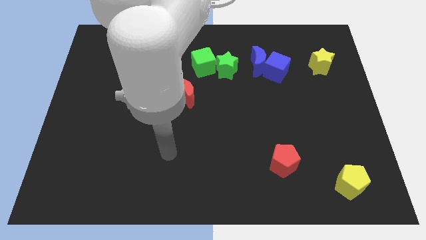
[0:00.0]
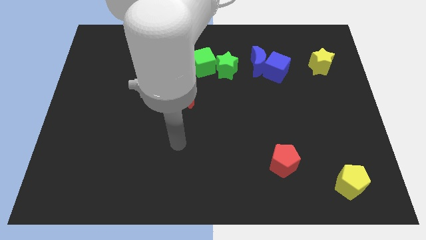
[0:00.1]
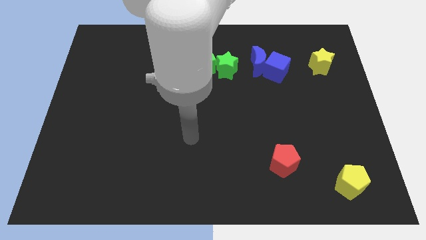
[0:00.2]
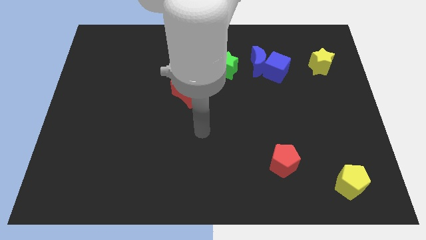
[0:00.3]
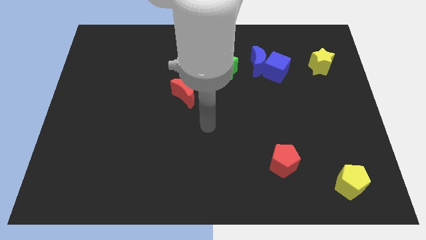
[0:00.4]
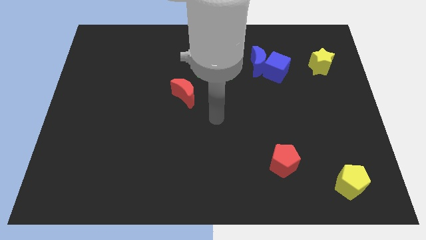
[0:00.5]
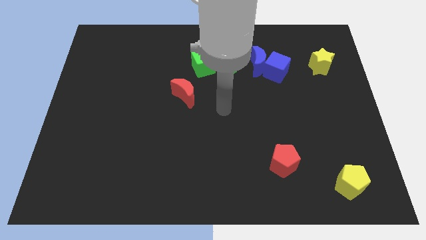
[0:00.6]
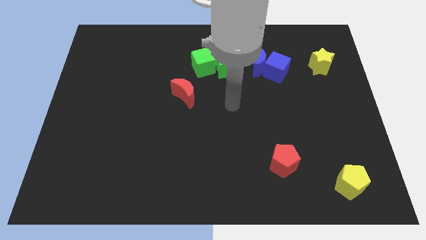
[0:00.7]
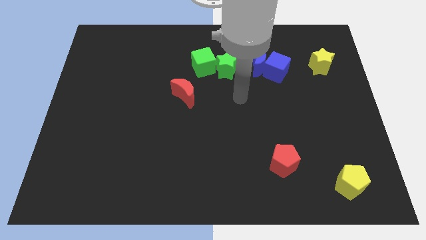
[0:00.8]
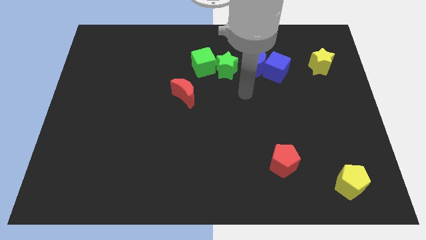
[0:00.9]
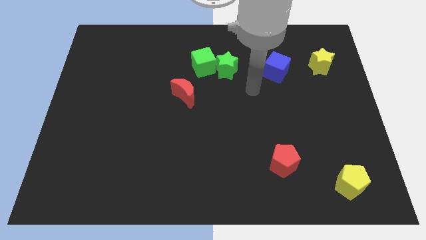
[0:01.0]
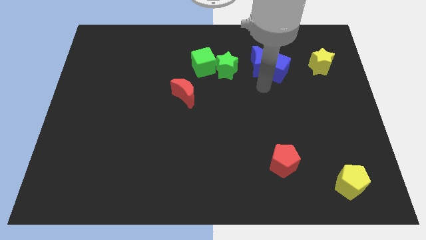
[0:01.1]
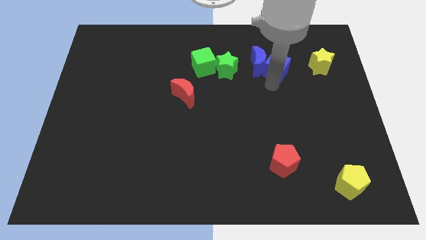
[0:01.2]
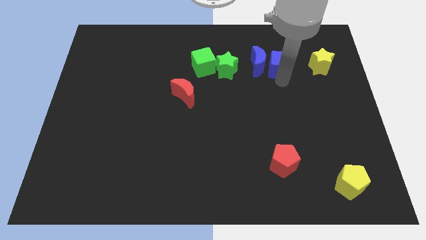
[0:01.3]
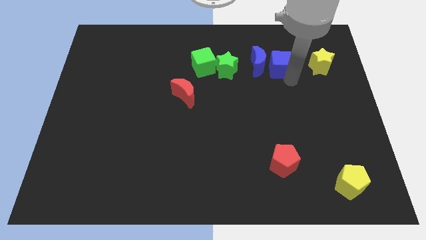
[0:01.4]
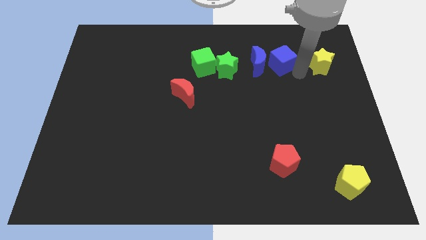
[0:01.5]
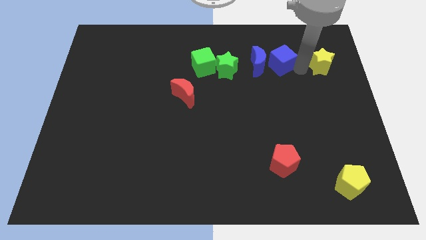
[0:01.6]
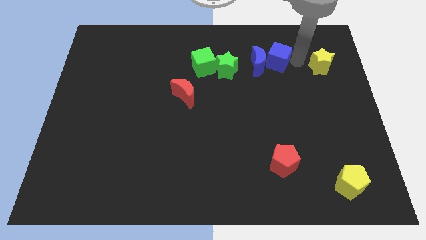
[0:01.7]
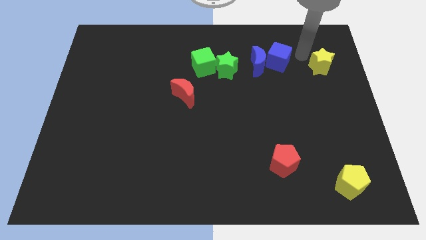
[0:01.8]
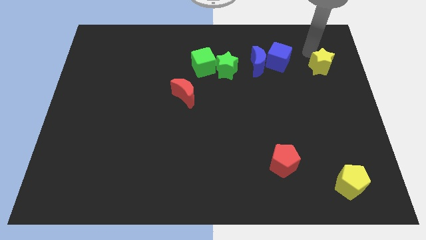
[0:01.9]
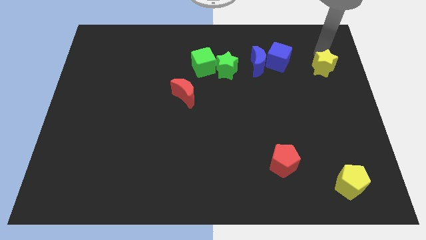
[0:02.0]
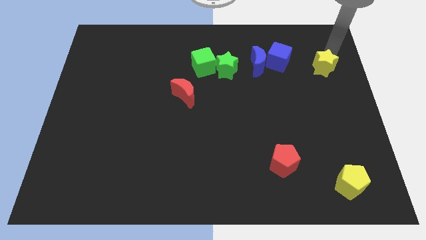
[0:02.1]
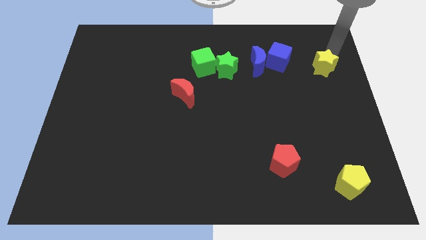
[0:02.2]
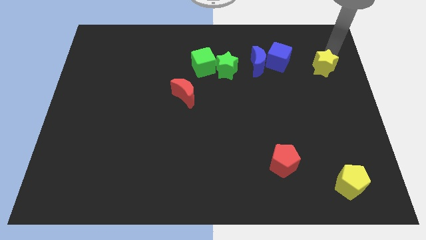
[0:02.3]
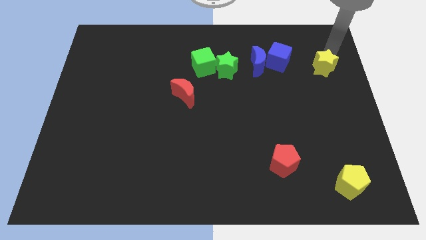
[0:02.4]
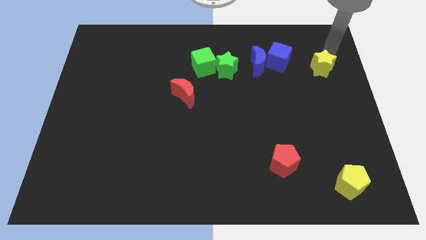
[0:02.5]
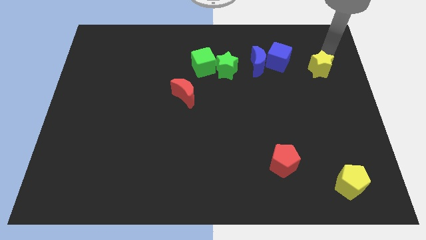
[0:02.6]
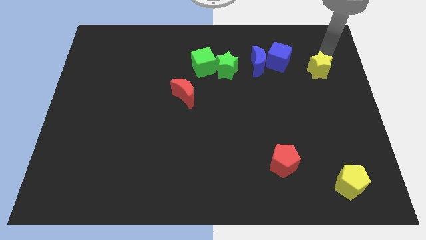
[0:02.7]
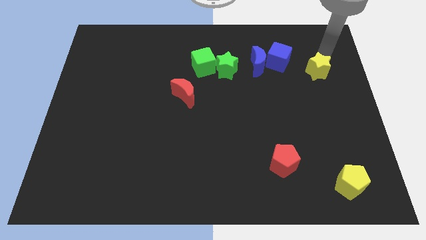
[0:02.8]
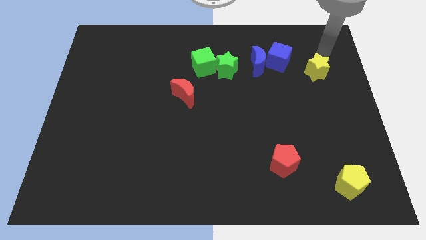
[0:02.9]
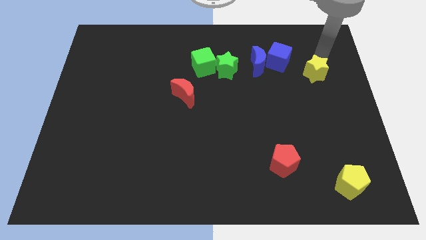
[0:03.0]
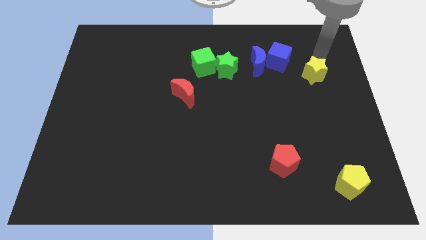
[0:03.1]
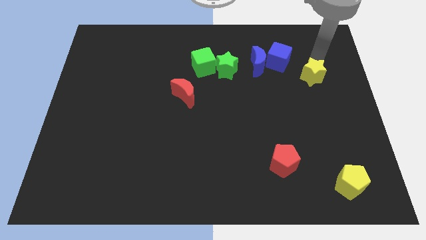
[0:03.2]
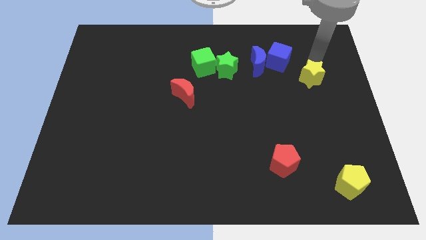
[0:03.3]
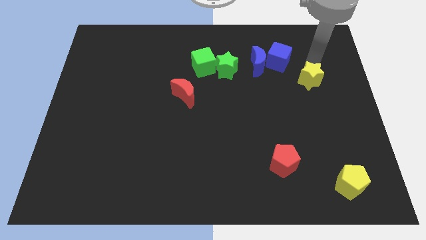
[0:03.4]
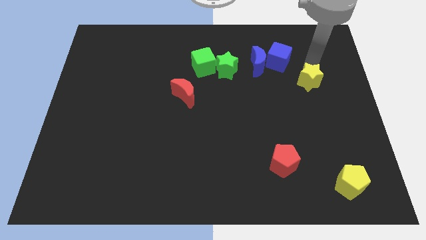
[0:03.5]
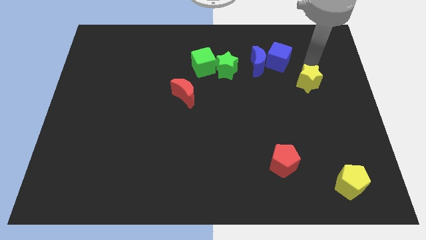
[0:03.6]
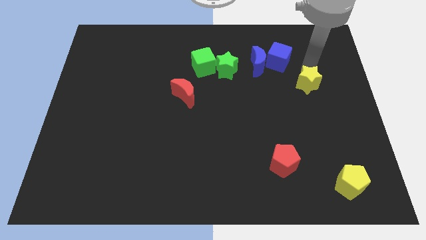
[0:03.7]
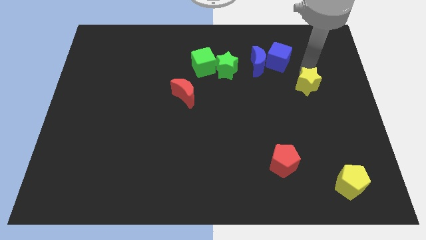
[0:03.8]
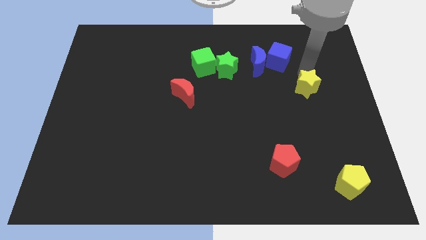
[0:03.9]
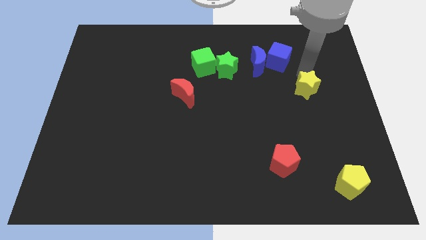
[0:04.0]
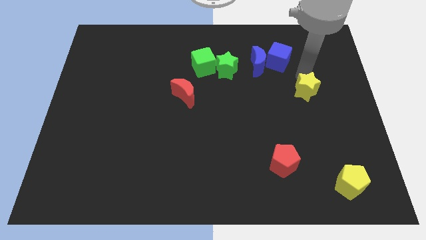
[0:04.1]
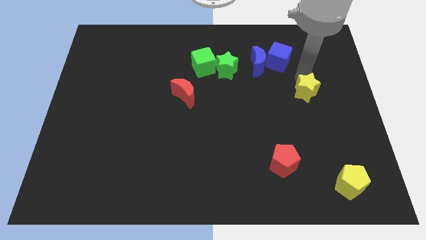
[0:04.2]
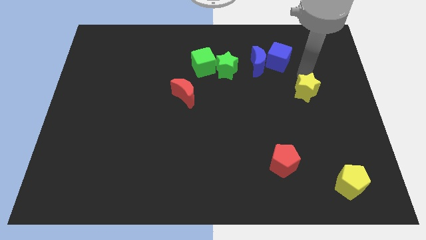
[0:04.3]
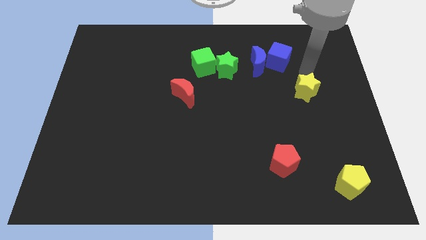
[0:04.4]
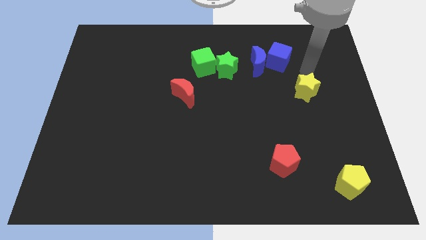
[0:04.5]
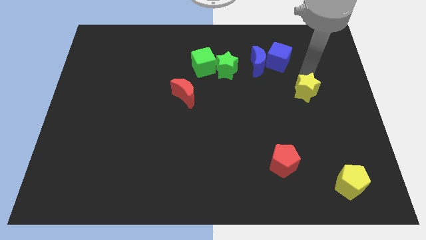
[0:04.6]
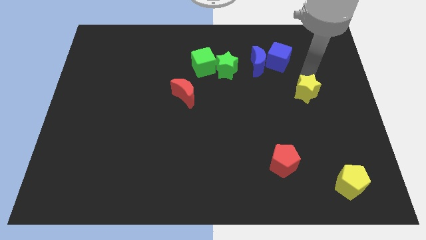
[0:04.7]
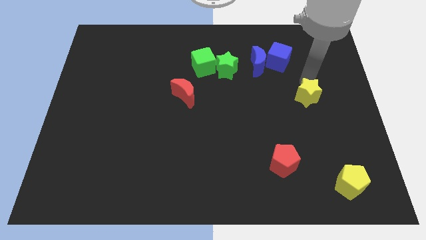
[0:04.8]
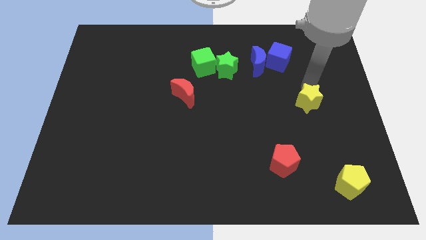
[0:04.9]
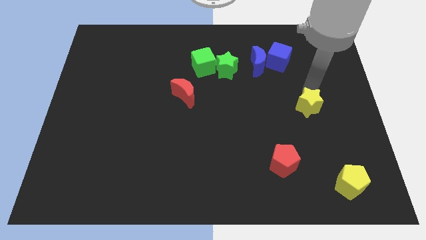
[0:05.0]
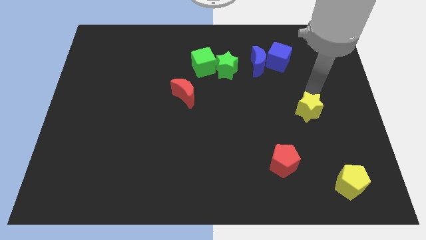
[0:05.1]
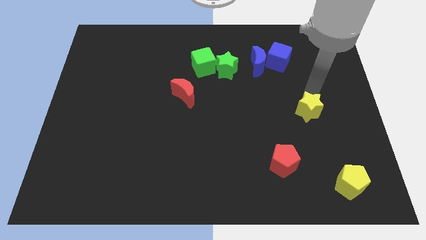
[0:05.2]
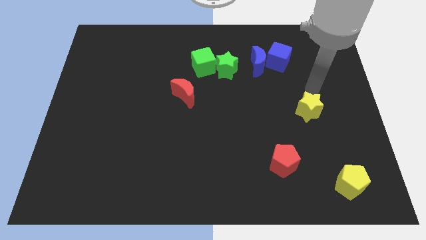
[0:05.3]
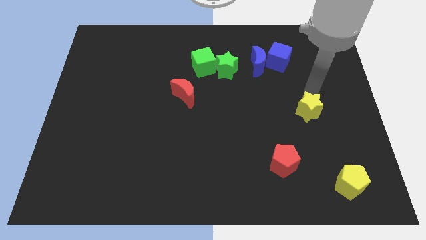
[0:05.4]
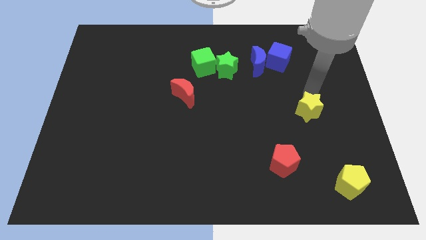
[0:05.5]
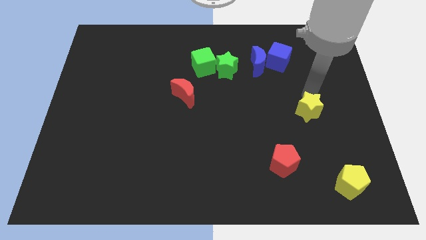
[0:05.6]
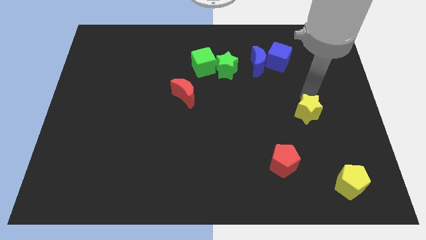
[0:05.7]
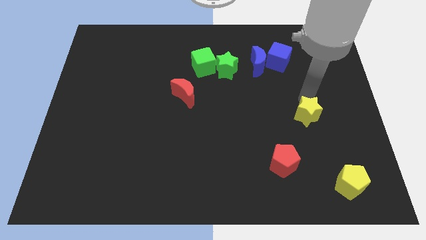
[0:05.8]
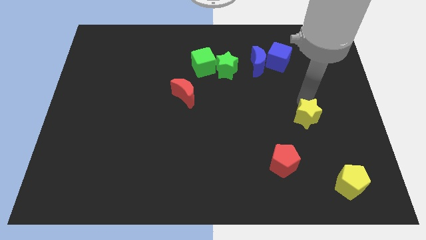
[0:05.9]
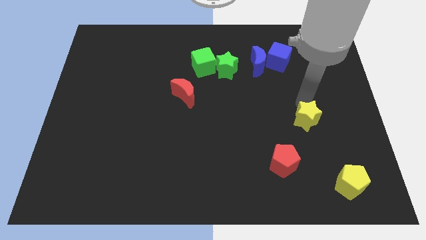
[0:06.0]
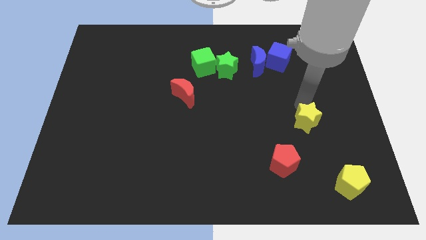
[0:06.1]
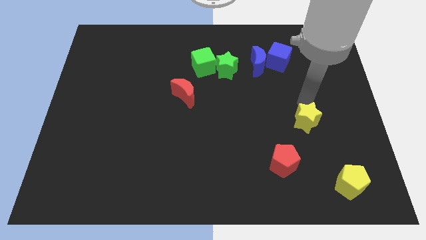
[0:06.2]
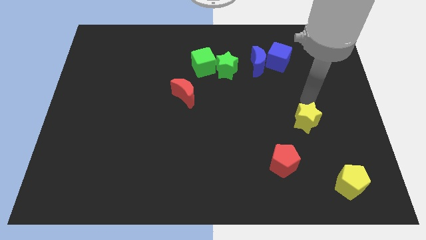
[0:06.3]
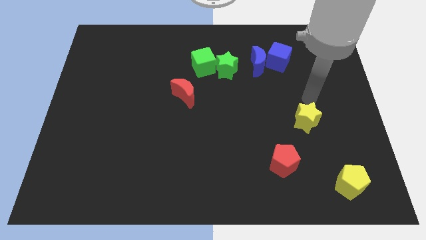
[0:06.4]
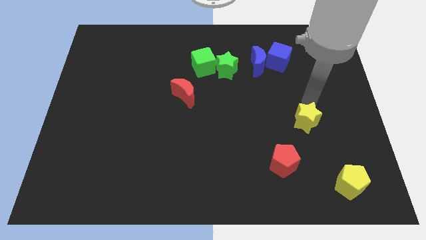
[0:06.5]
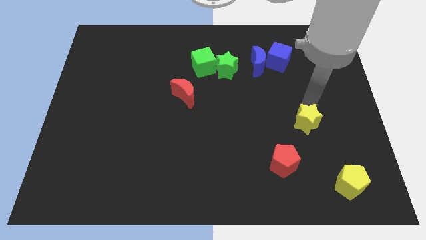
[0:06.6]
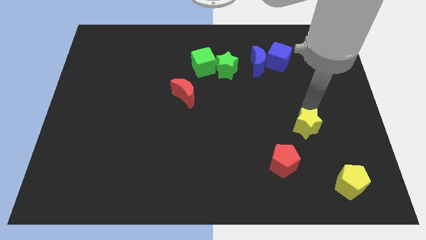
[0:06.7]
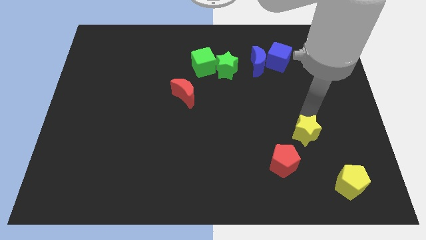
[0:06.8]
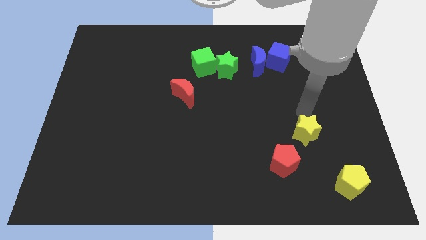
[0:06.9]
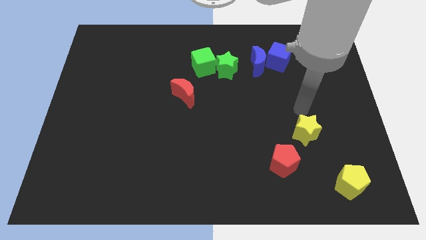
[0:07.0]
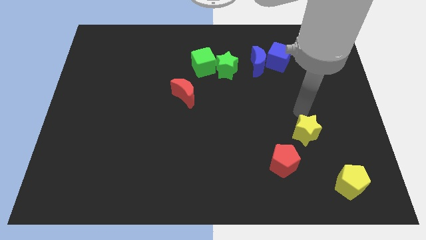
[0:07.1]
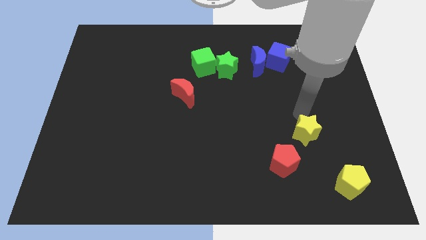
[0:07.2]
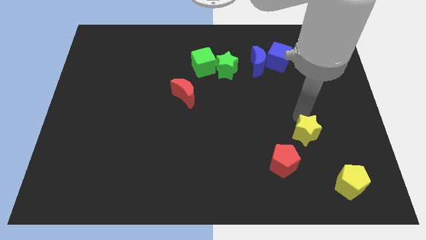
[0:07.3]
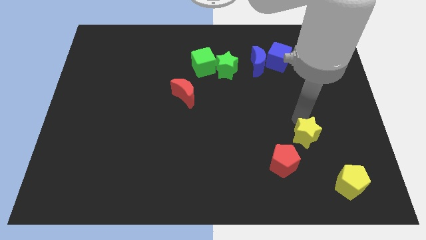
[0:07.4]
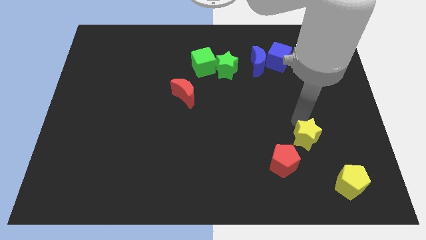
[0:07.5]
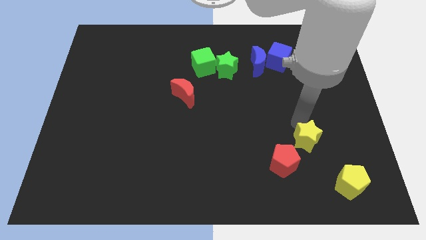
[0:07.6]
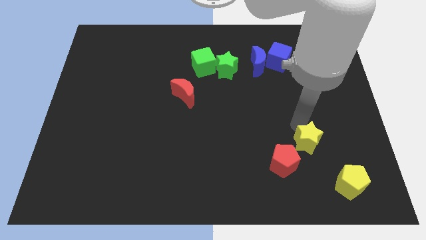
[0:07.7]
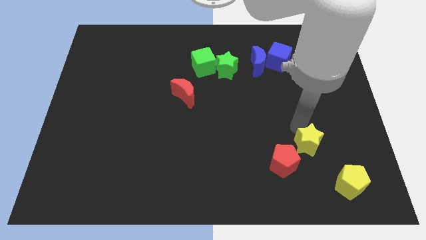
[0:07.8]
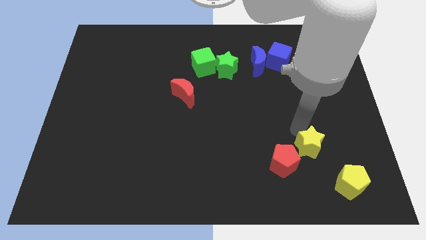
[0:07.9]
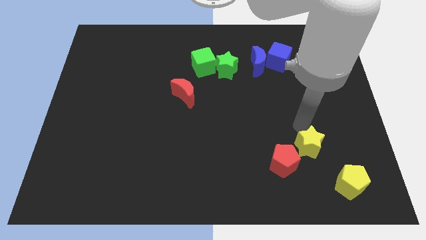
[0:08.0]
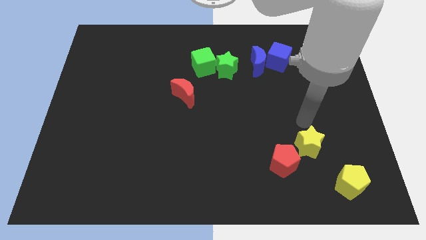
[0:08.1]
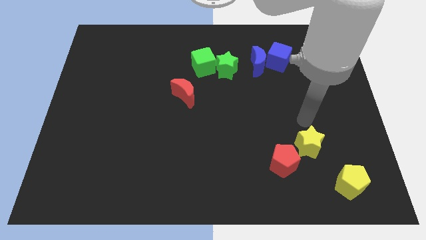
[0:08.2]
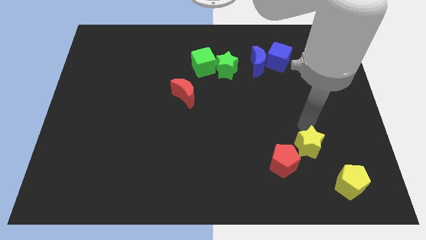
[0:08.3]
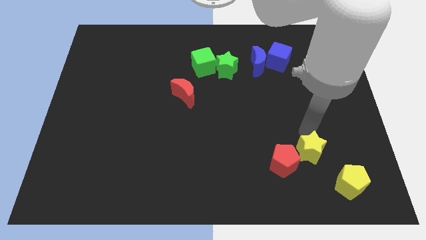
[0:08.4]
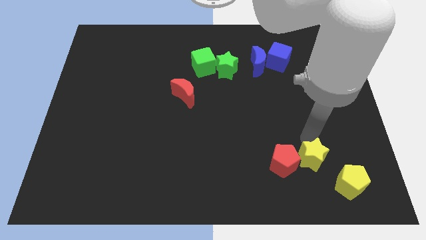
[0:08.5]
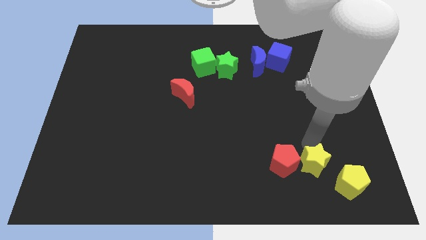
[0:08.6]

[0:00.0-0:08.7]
put the yellow star just left of the yellow pentagon
